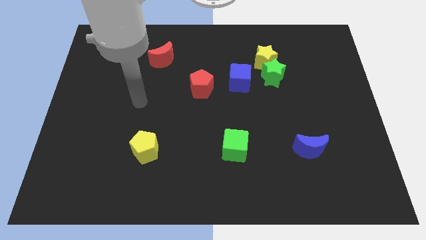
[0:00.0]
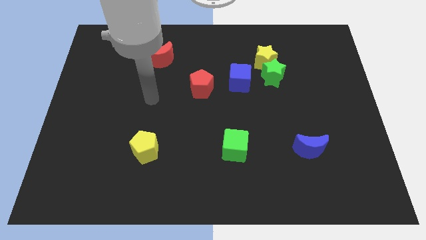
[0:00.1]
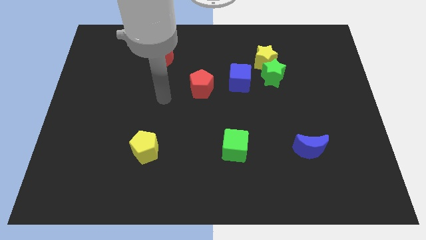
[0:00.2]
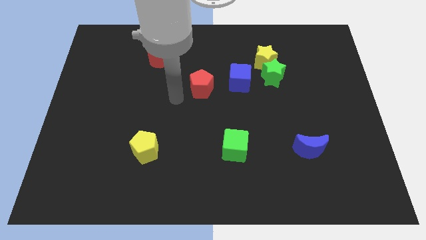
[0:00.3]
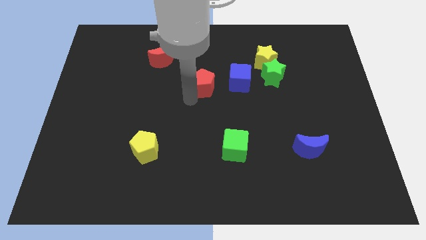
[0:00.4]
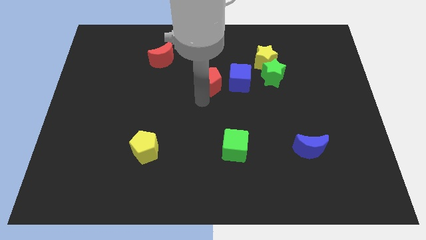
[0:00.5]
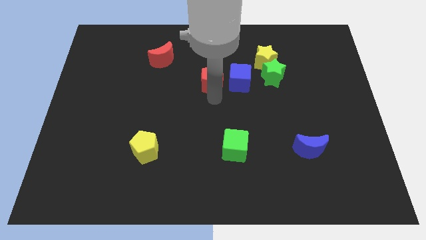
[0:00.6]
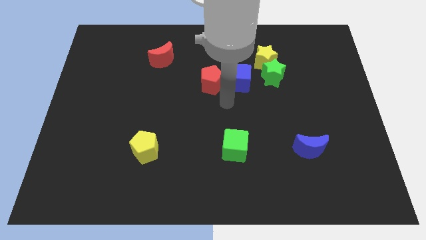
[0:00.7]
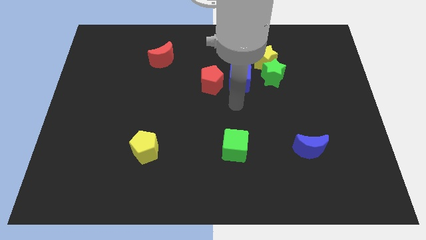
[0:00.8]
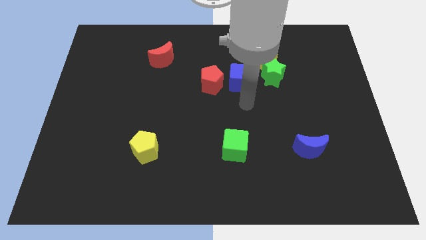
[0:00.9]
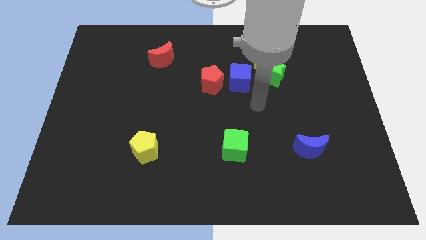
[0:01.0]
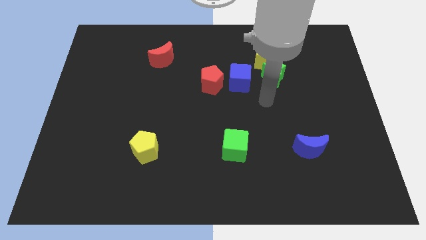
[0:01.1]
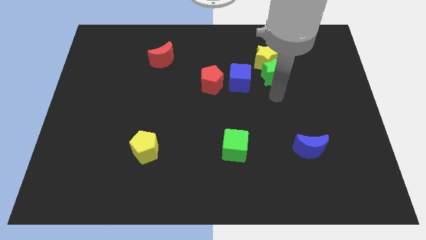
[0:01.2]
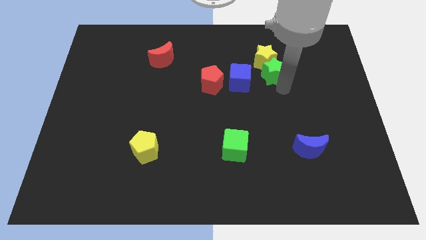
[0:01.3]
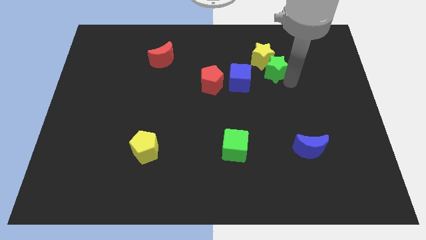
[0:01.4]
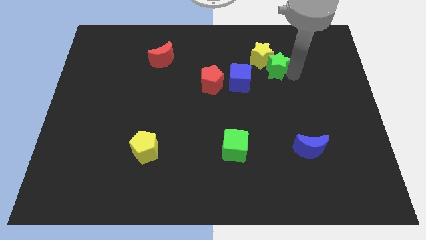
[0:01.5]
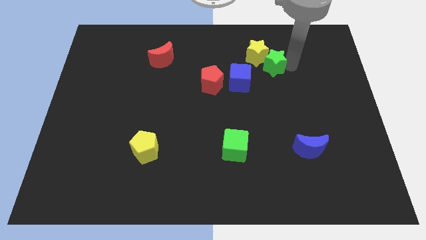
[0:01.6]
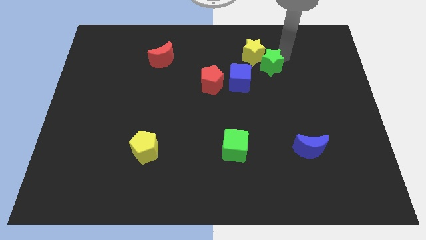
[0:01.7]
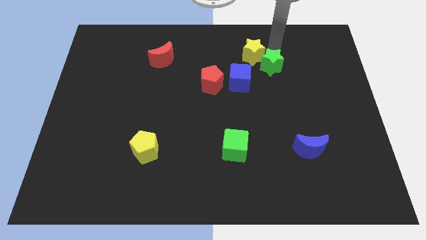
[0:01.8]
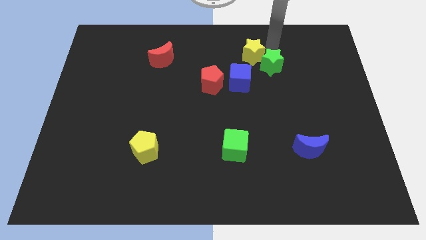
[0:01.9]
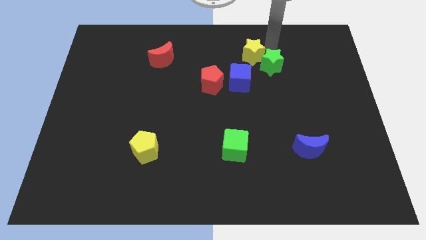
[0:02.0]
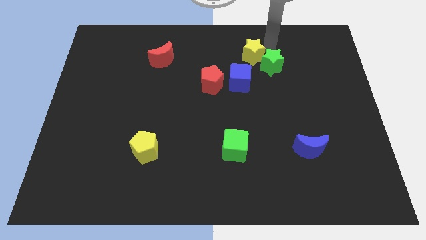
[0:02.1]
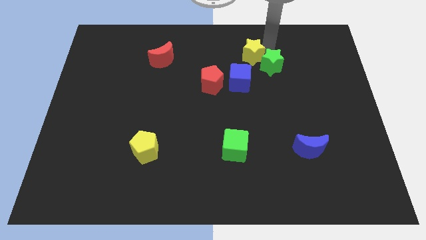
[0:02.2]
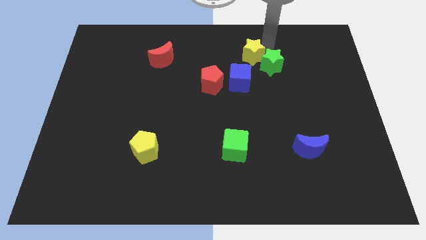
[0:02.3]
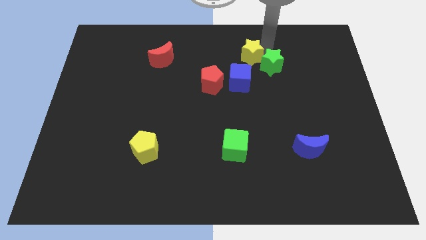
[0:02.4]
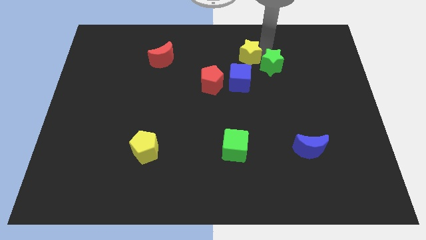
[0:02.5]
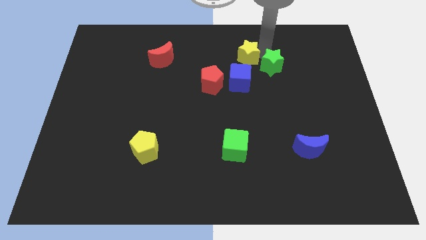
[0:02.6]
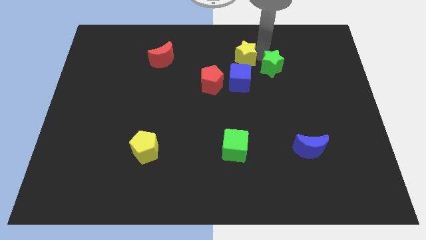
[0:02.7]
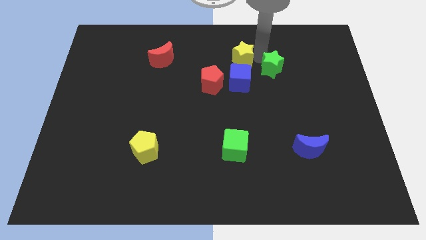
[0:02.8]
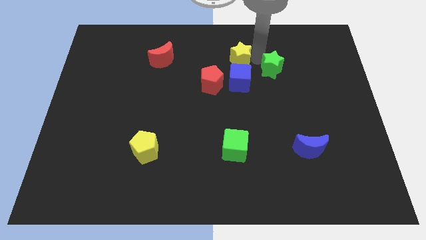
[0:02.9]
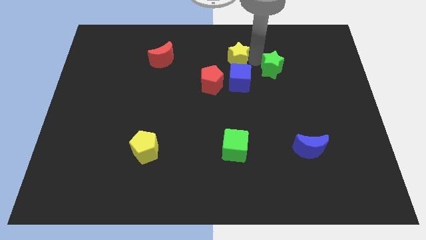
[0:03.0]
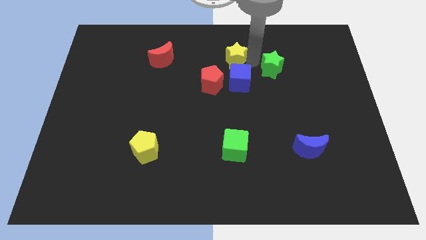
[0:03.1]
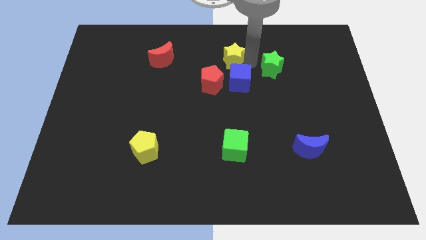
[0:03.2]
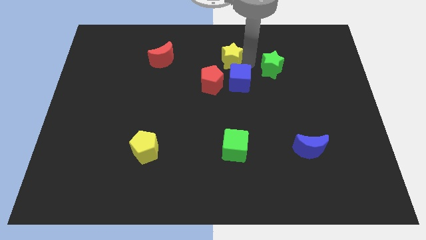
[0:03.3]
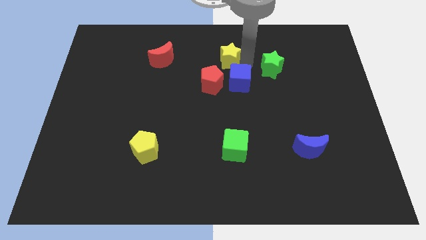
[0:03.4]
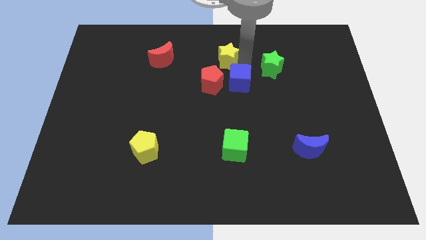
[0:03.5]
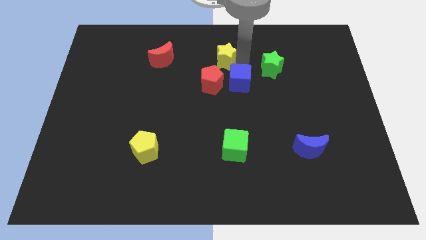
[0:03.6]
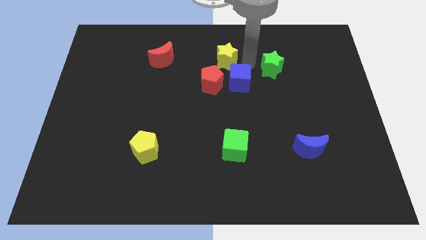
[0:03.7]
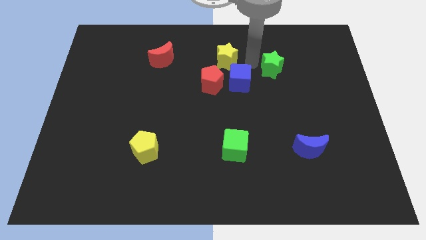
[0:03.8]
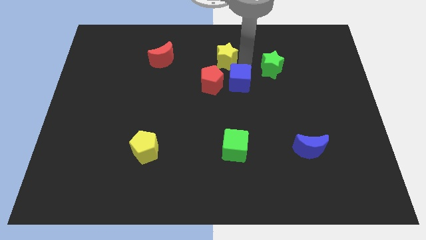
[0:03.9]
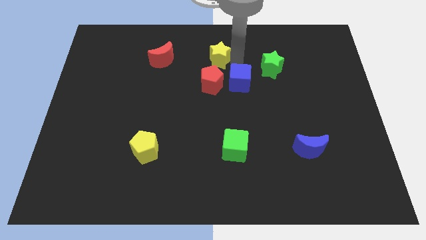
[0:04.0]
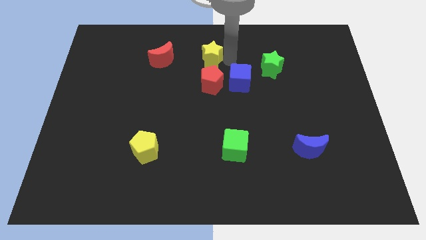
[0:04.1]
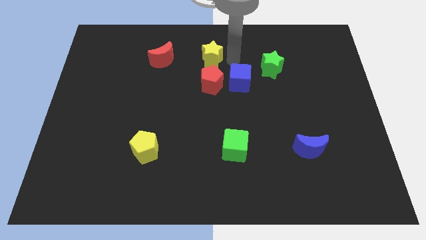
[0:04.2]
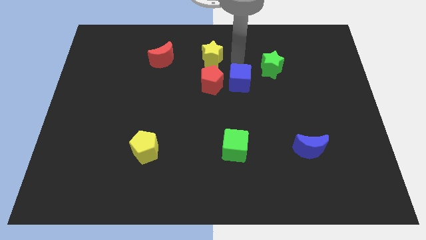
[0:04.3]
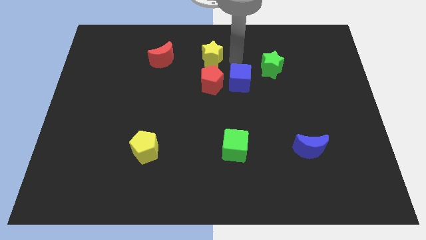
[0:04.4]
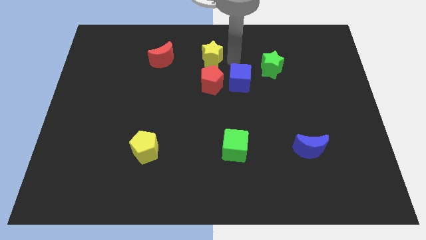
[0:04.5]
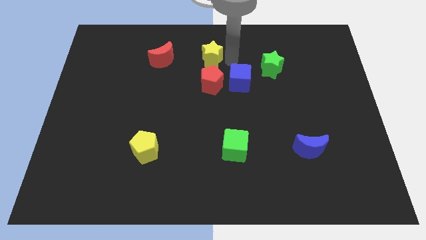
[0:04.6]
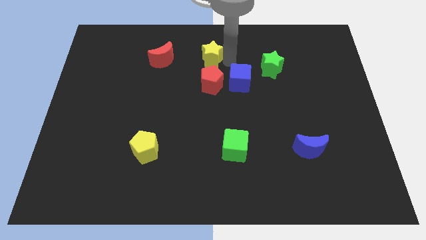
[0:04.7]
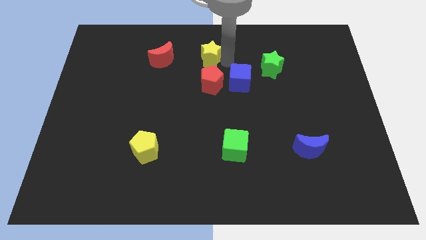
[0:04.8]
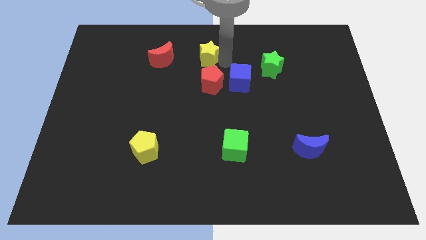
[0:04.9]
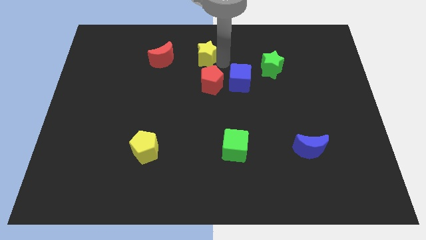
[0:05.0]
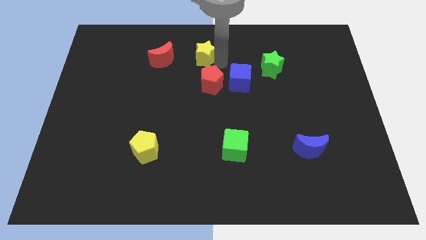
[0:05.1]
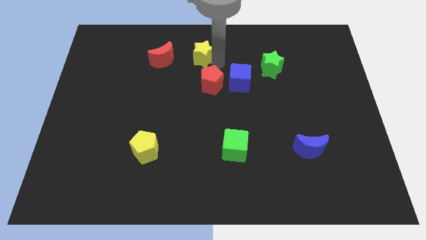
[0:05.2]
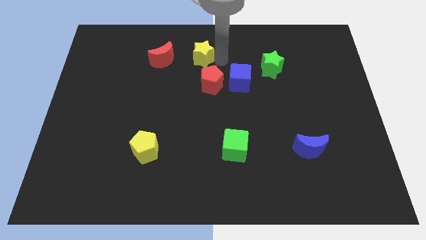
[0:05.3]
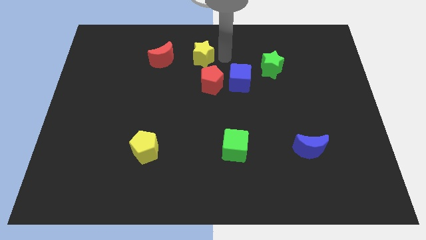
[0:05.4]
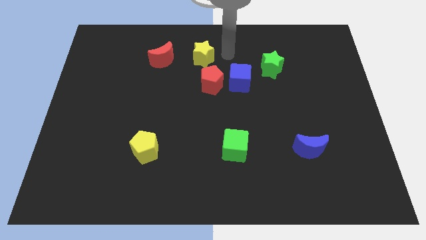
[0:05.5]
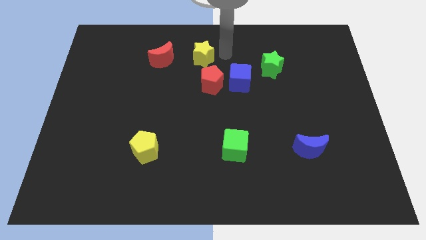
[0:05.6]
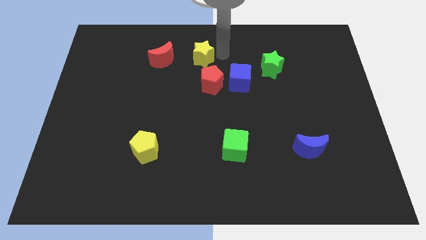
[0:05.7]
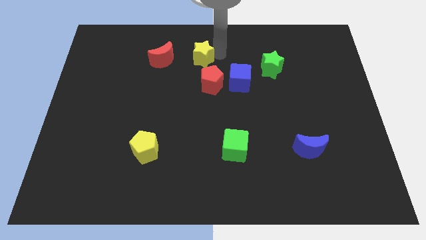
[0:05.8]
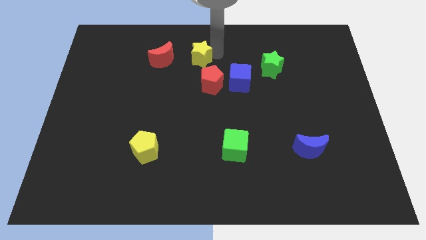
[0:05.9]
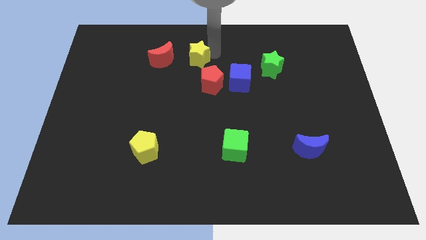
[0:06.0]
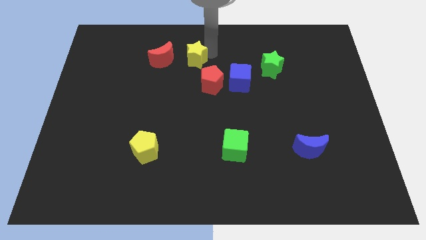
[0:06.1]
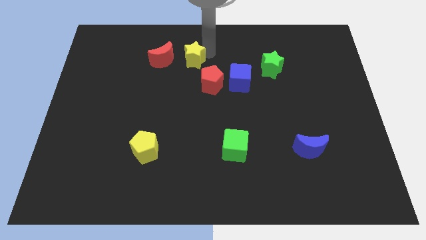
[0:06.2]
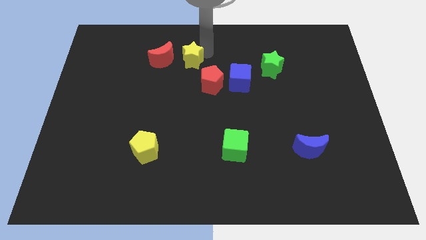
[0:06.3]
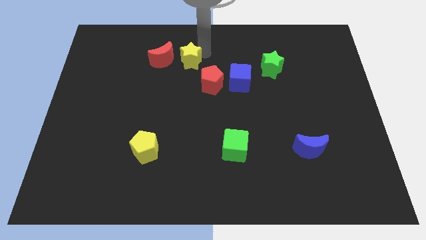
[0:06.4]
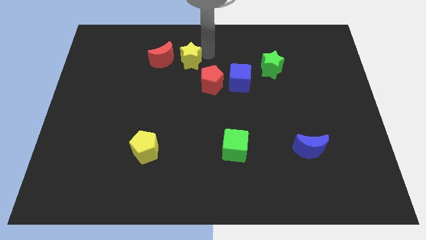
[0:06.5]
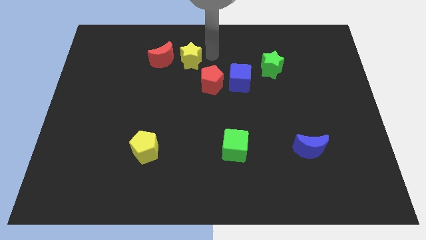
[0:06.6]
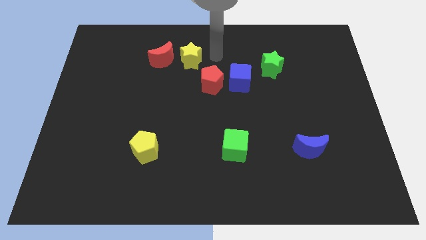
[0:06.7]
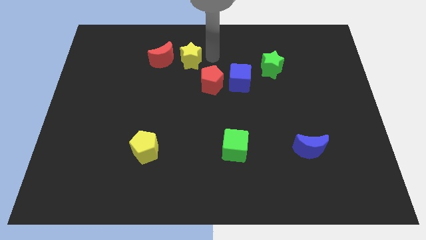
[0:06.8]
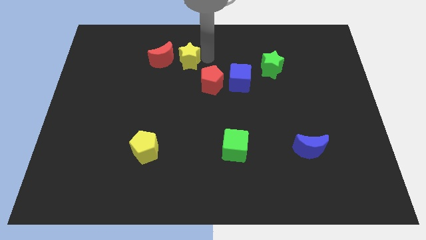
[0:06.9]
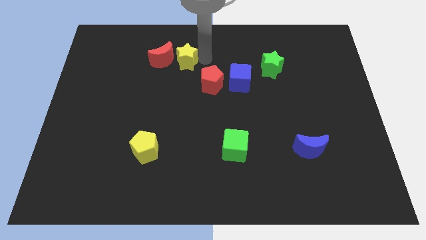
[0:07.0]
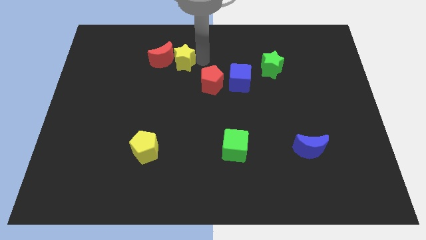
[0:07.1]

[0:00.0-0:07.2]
push the yellow star towards the red moon

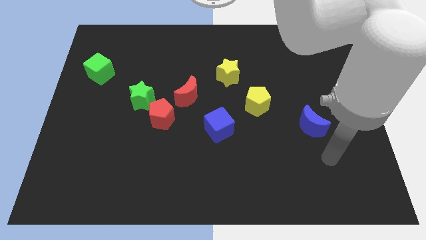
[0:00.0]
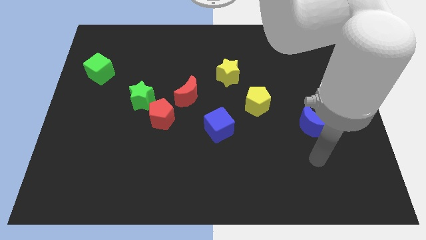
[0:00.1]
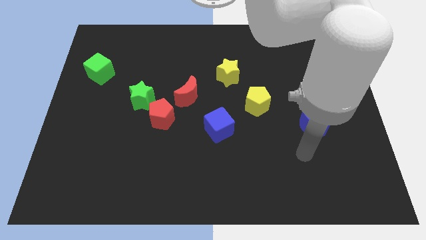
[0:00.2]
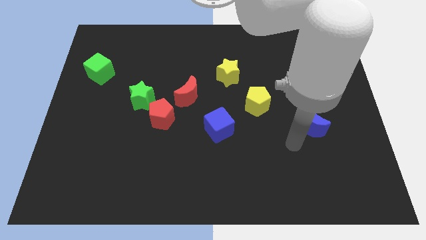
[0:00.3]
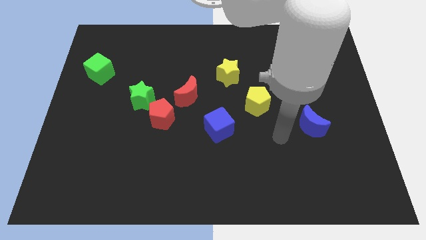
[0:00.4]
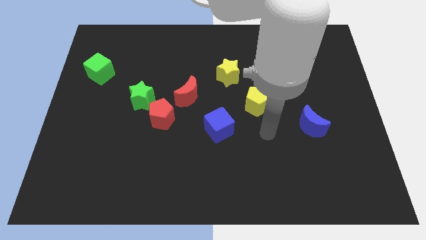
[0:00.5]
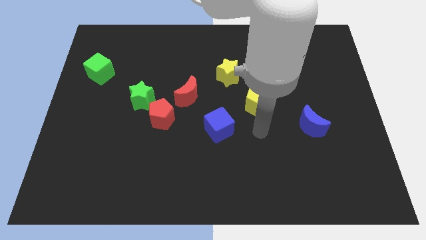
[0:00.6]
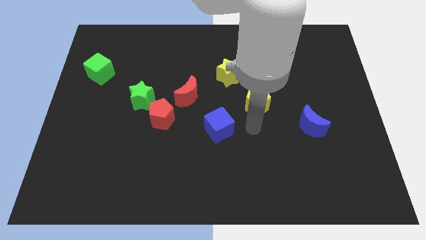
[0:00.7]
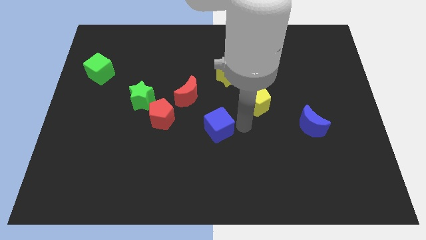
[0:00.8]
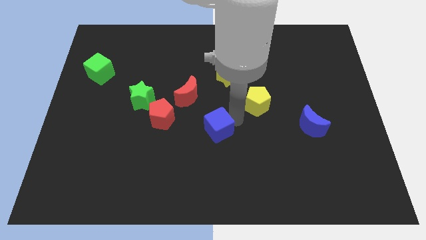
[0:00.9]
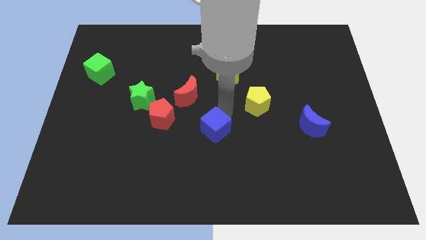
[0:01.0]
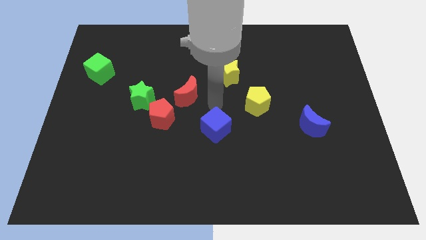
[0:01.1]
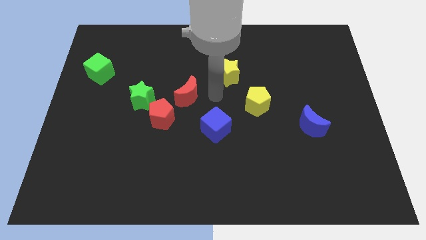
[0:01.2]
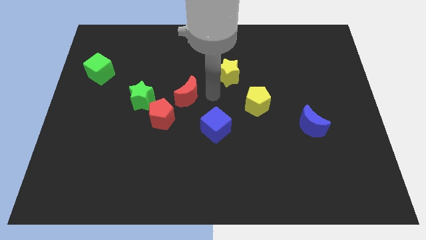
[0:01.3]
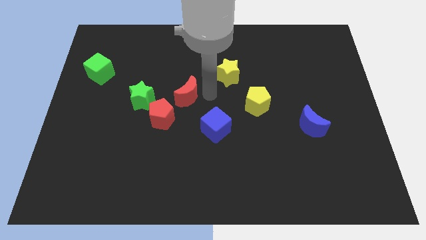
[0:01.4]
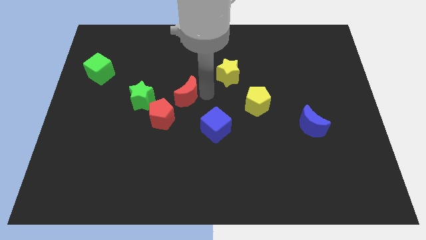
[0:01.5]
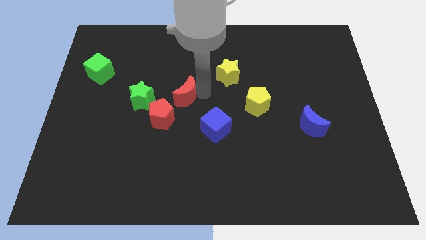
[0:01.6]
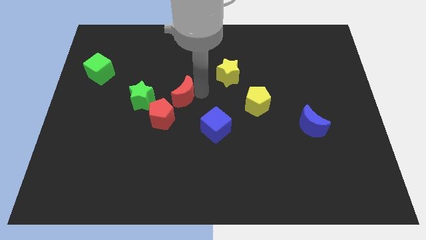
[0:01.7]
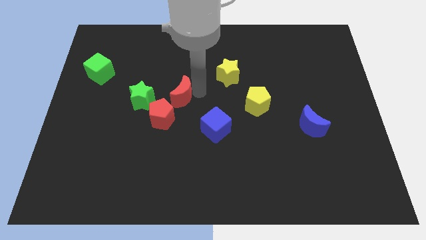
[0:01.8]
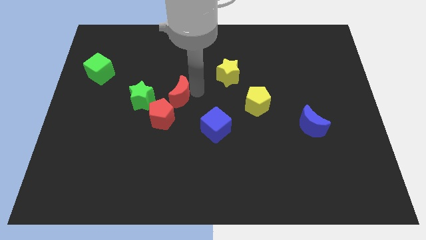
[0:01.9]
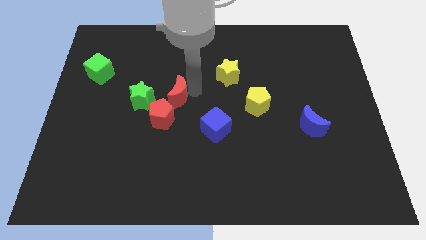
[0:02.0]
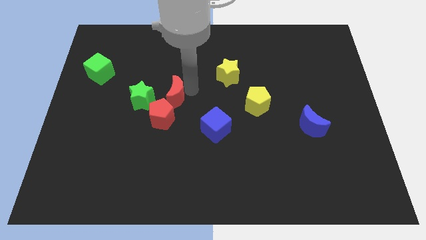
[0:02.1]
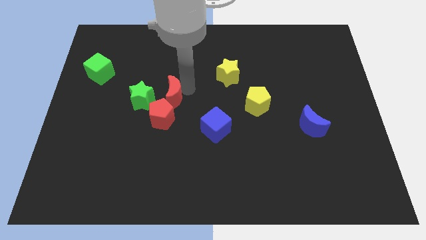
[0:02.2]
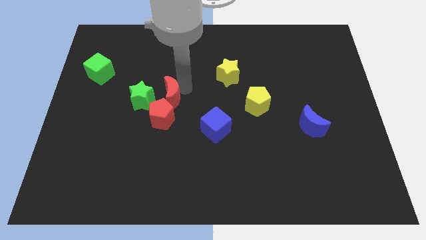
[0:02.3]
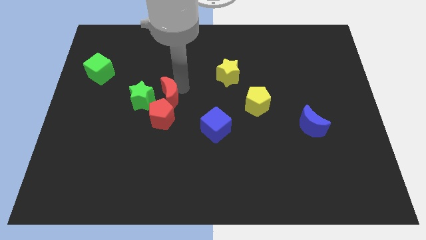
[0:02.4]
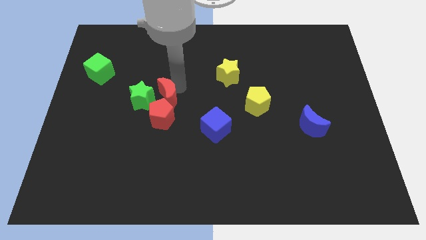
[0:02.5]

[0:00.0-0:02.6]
move the red moon to the green star
